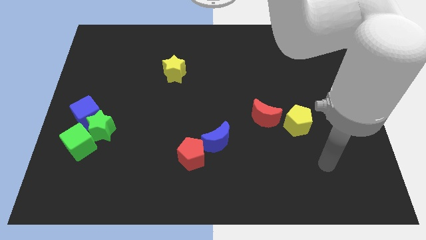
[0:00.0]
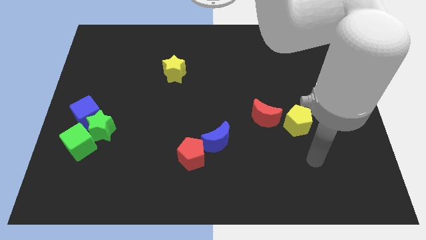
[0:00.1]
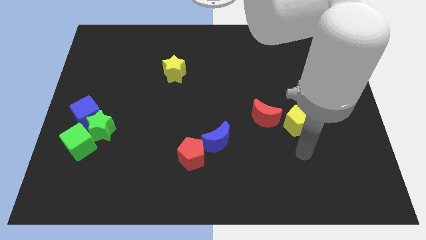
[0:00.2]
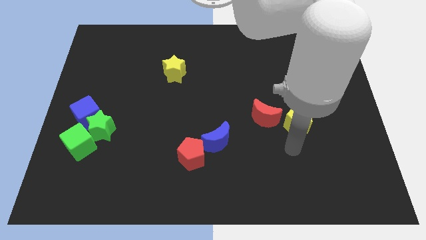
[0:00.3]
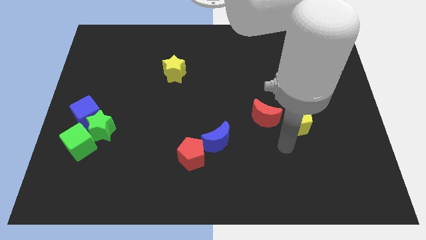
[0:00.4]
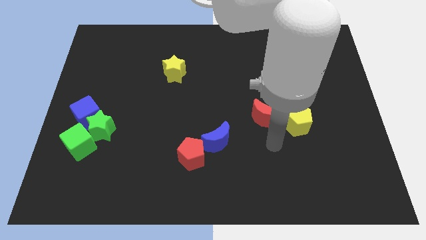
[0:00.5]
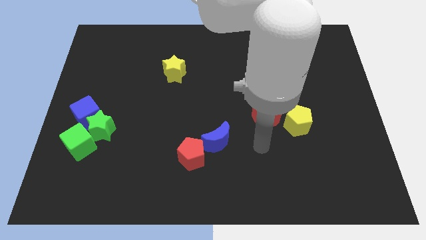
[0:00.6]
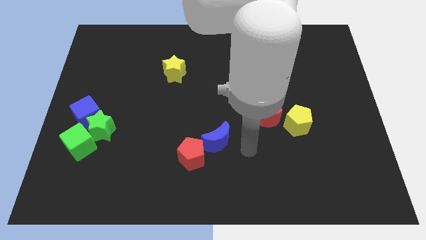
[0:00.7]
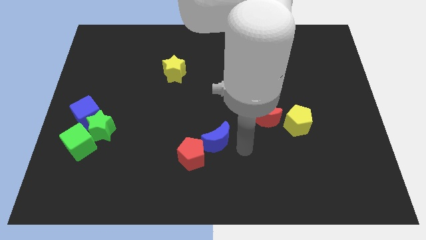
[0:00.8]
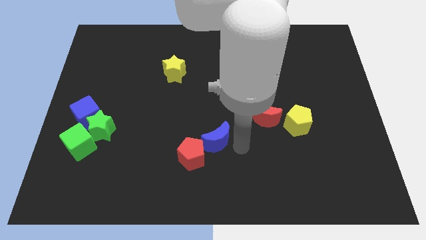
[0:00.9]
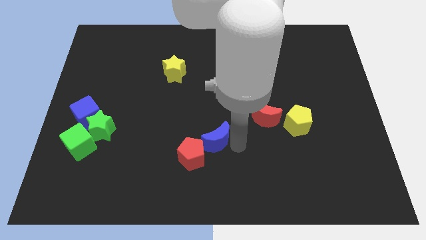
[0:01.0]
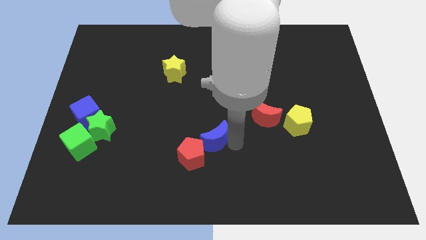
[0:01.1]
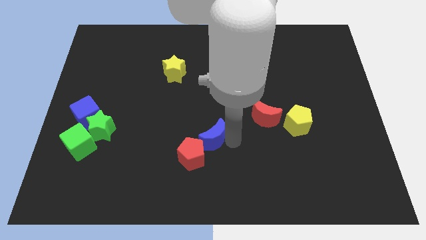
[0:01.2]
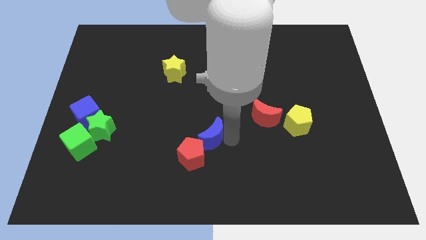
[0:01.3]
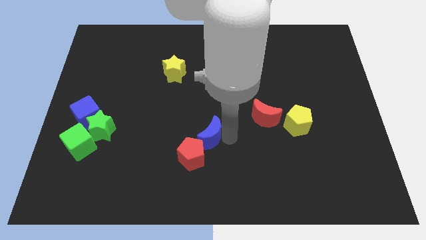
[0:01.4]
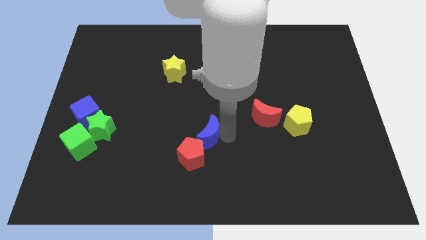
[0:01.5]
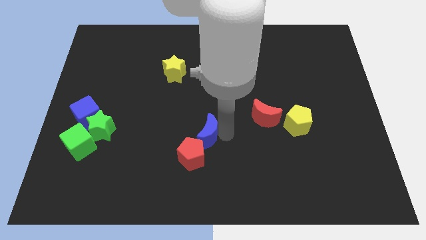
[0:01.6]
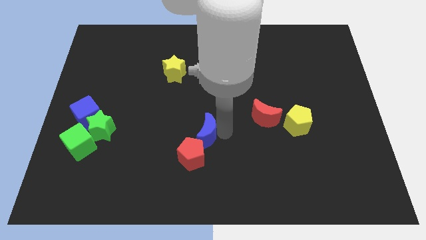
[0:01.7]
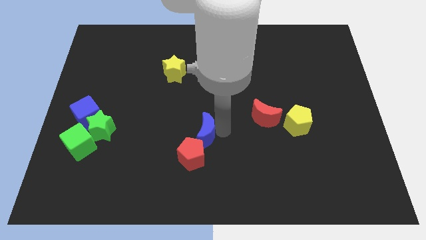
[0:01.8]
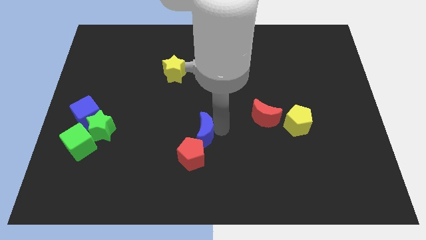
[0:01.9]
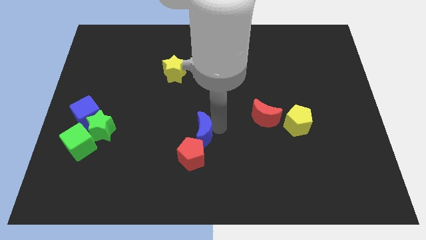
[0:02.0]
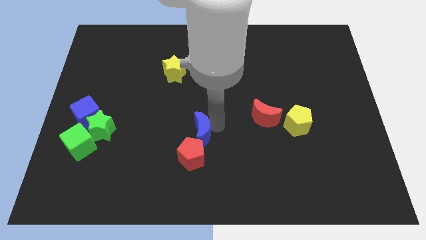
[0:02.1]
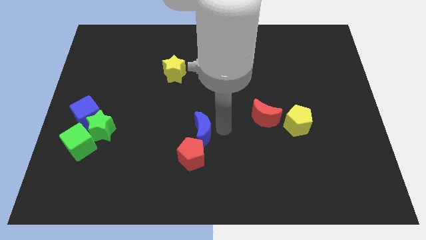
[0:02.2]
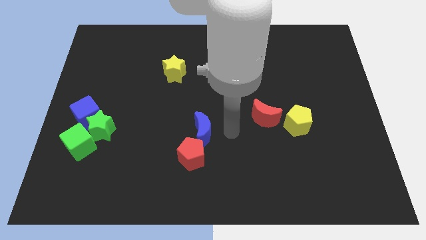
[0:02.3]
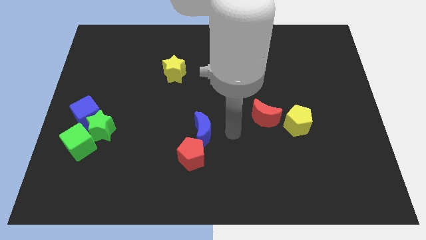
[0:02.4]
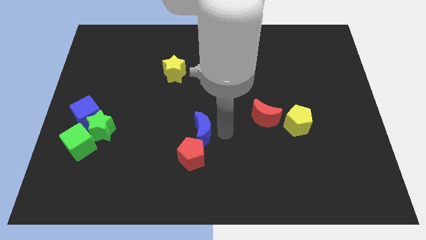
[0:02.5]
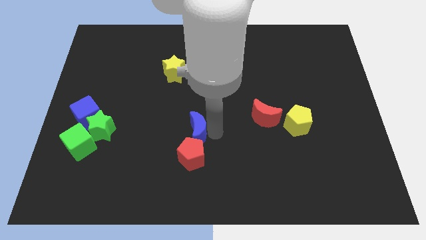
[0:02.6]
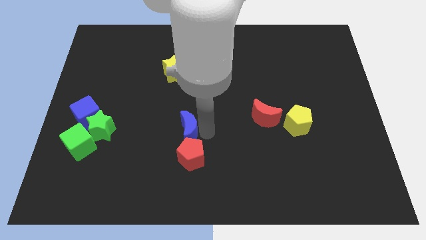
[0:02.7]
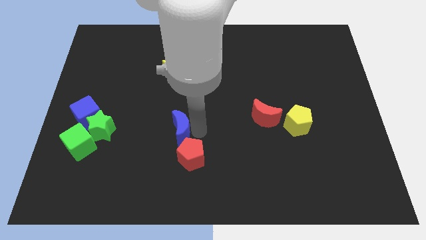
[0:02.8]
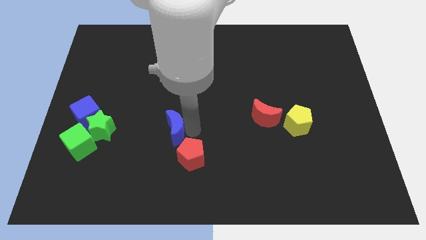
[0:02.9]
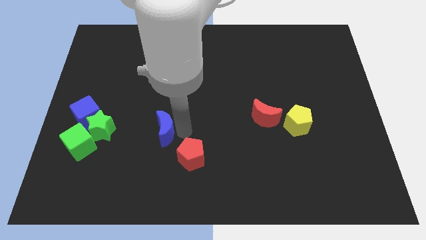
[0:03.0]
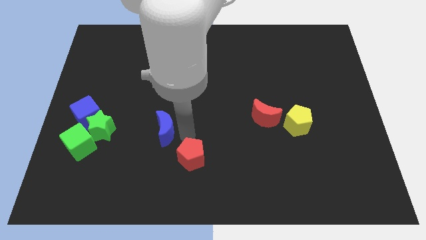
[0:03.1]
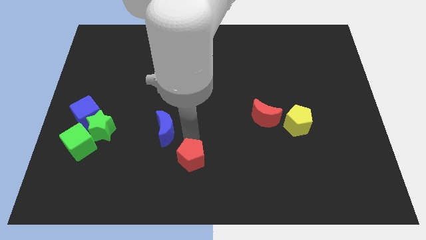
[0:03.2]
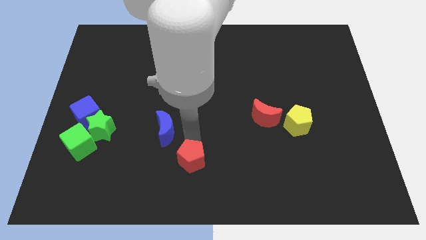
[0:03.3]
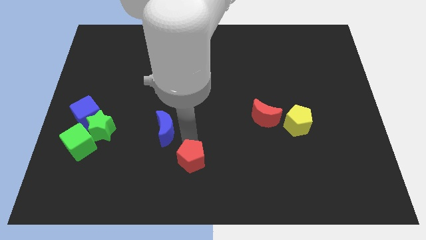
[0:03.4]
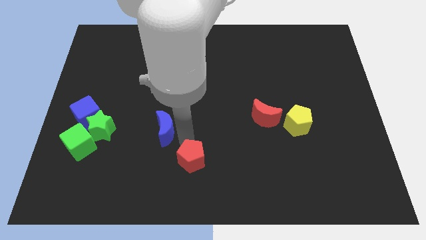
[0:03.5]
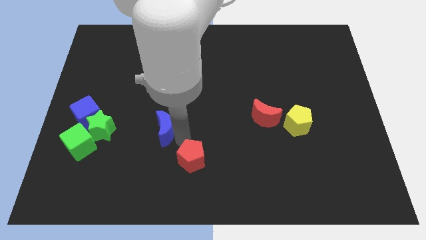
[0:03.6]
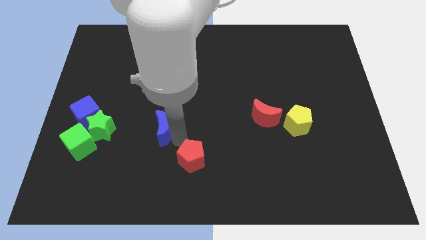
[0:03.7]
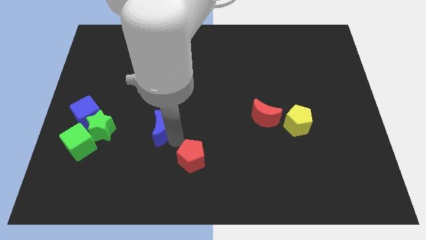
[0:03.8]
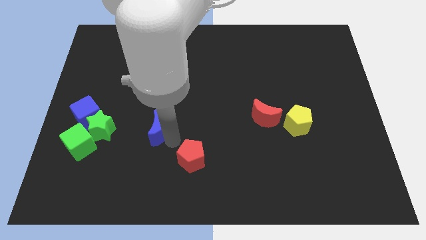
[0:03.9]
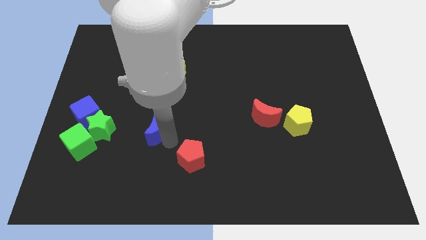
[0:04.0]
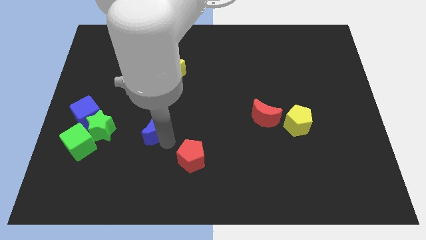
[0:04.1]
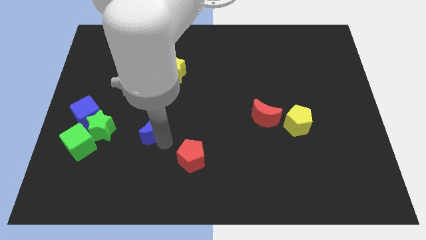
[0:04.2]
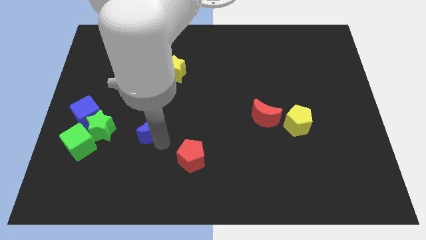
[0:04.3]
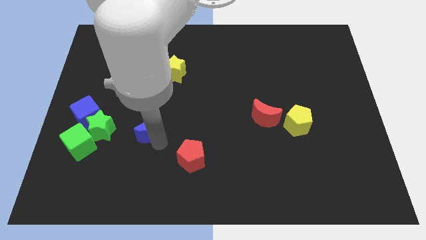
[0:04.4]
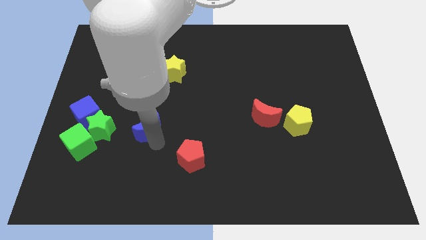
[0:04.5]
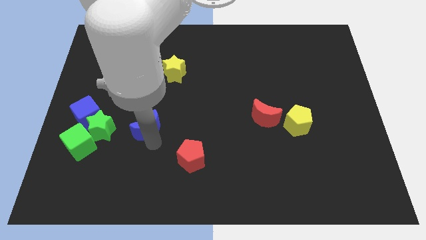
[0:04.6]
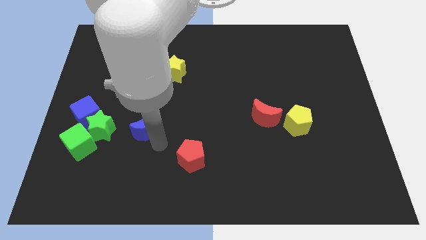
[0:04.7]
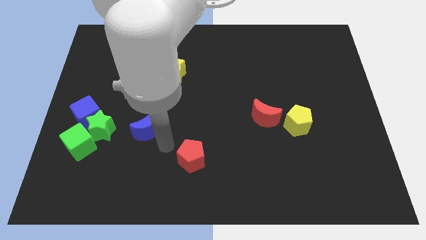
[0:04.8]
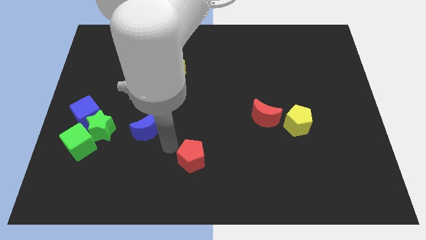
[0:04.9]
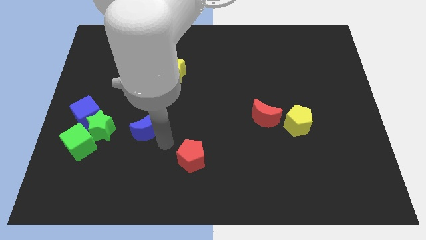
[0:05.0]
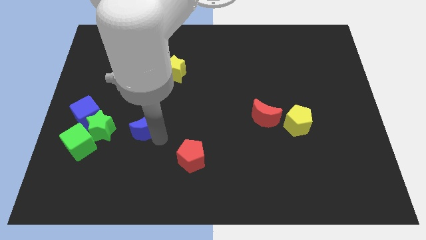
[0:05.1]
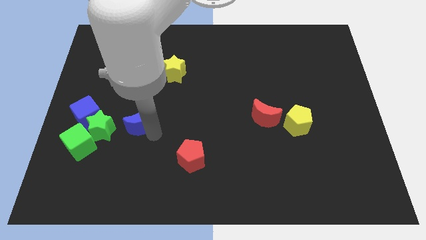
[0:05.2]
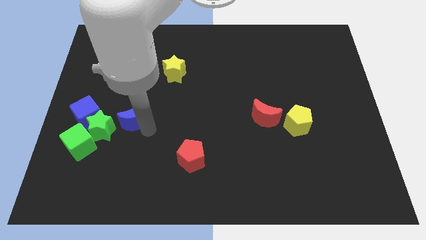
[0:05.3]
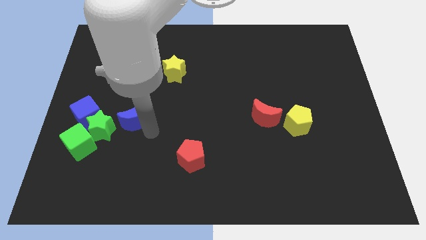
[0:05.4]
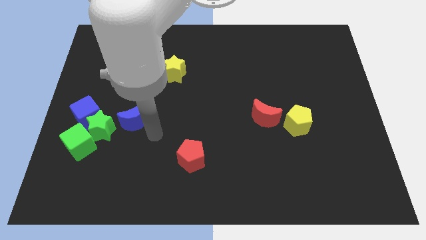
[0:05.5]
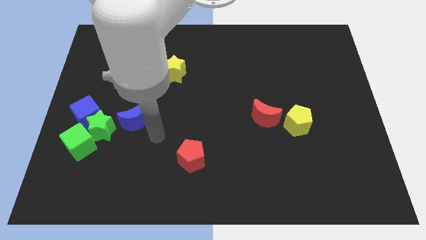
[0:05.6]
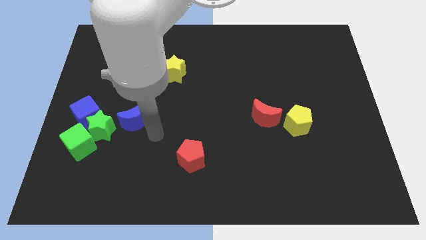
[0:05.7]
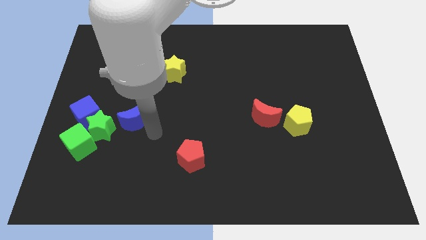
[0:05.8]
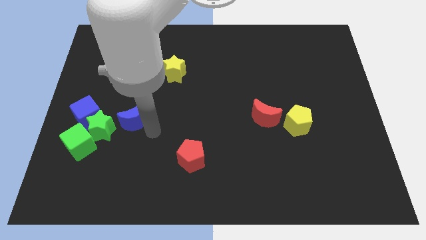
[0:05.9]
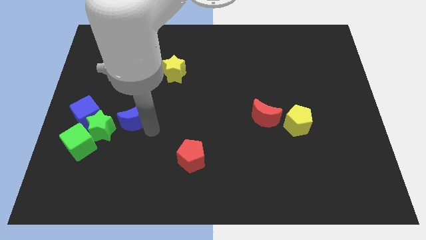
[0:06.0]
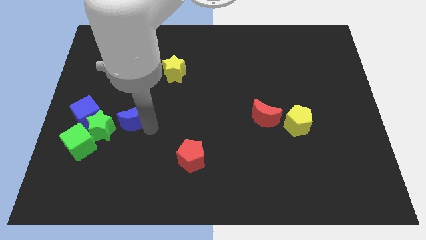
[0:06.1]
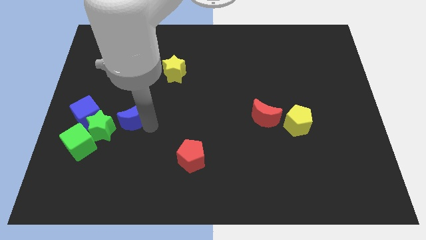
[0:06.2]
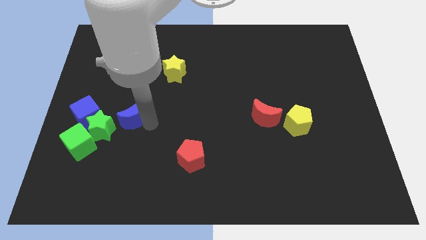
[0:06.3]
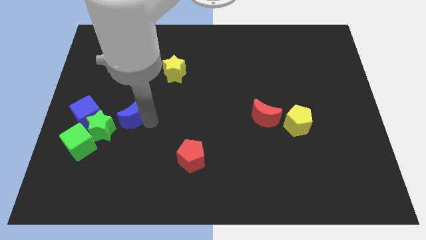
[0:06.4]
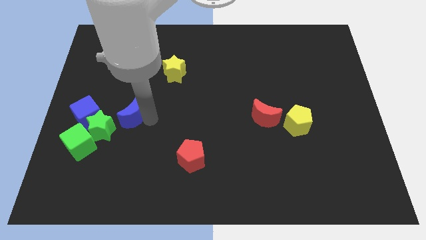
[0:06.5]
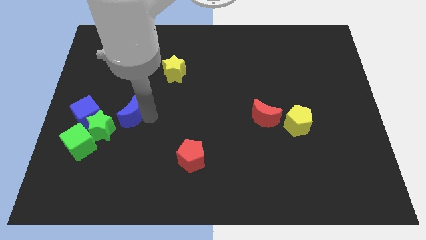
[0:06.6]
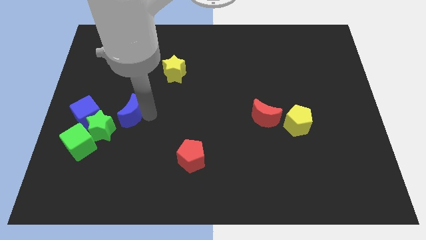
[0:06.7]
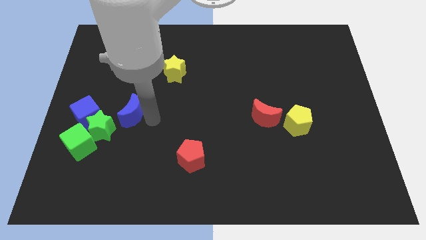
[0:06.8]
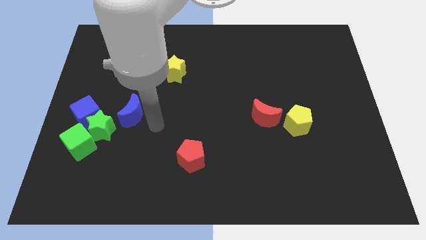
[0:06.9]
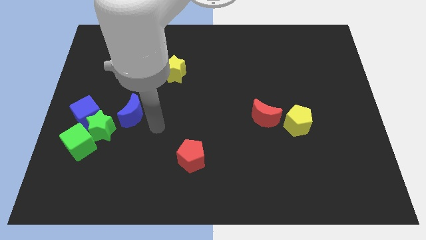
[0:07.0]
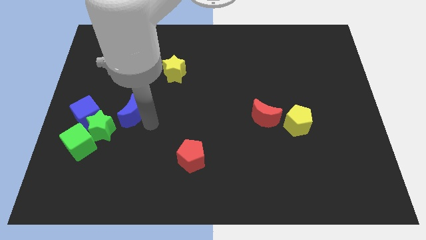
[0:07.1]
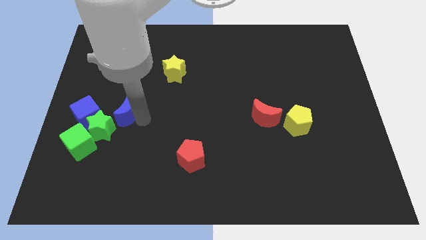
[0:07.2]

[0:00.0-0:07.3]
move the blue moon diagonally up and to the right of the green cube
